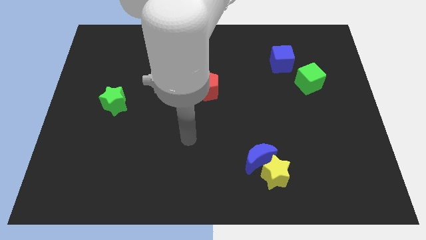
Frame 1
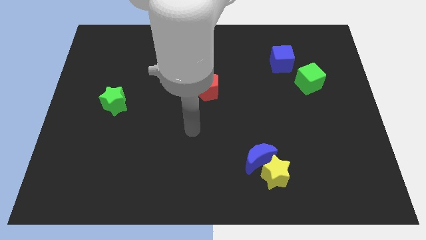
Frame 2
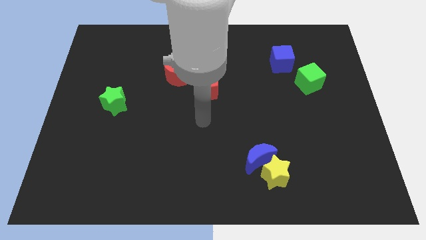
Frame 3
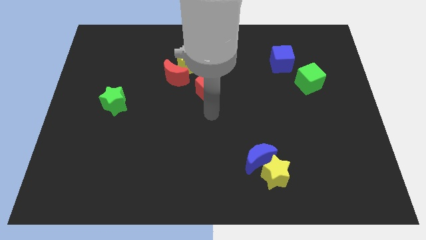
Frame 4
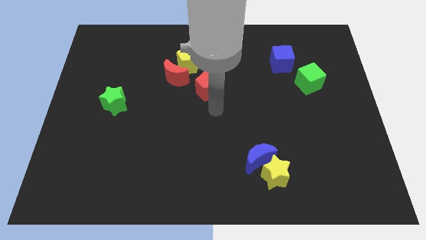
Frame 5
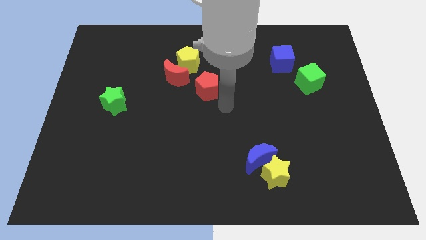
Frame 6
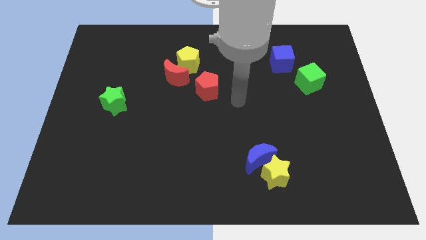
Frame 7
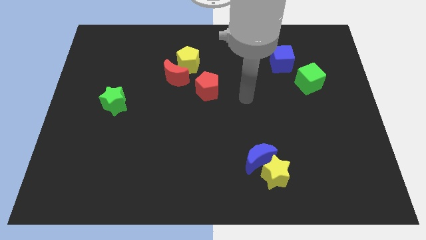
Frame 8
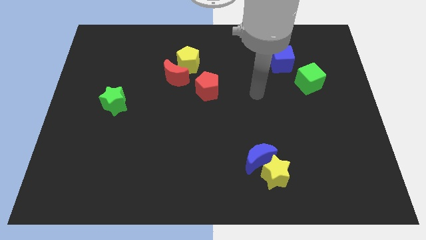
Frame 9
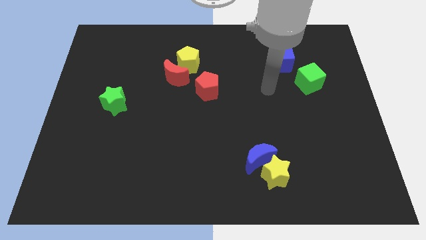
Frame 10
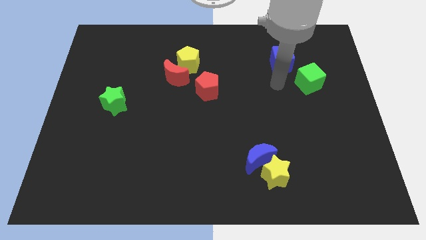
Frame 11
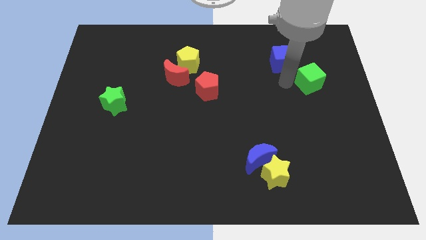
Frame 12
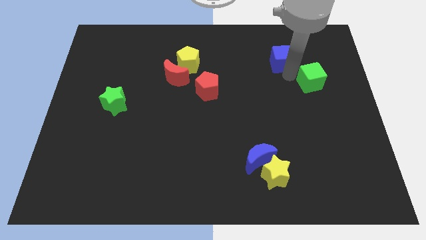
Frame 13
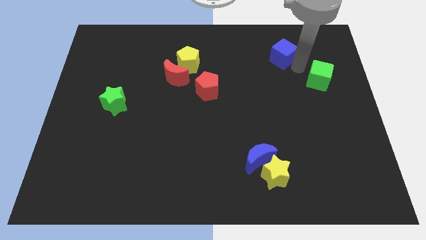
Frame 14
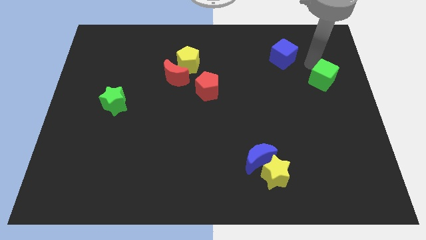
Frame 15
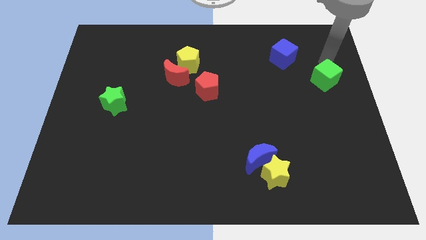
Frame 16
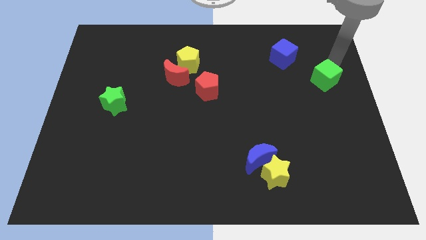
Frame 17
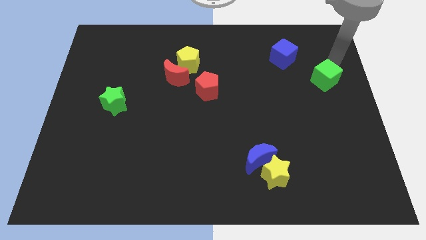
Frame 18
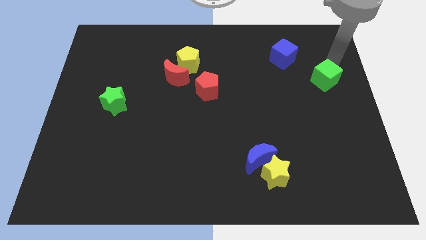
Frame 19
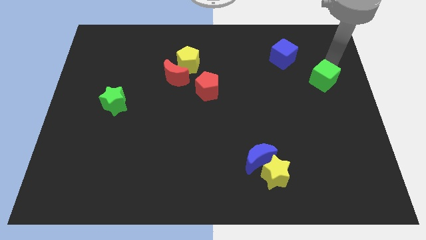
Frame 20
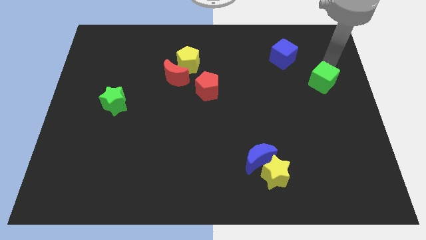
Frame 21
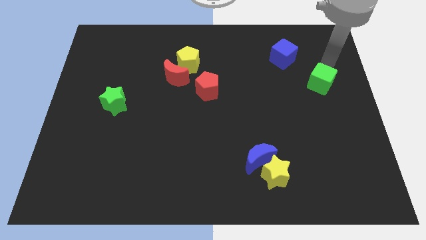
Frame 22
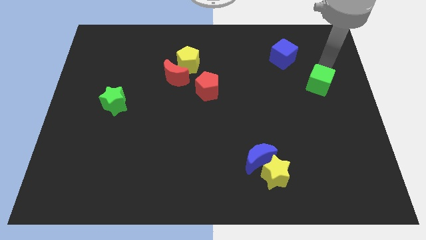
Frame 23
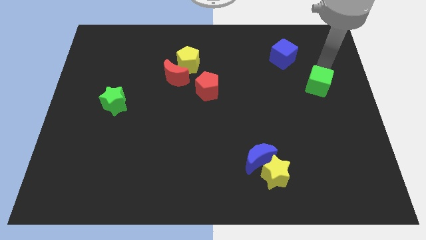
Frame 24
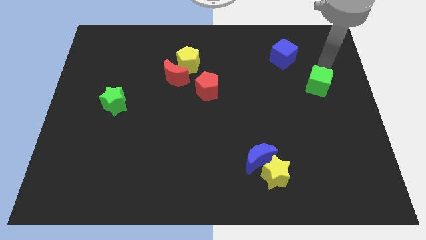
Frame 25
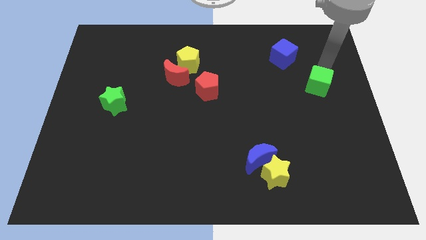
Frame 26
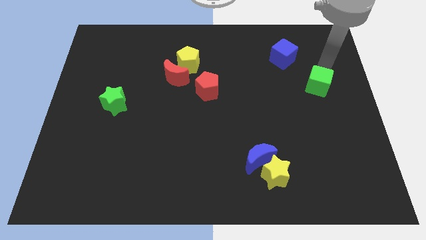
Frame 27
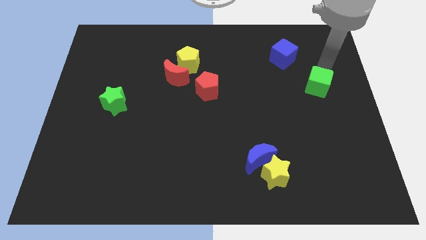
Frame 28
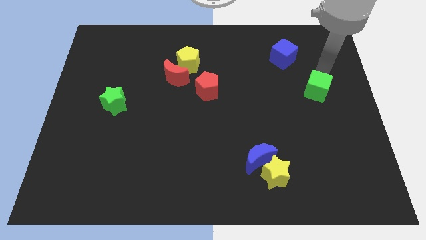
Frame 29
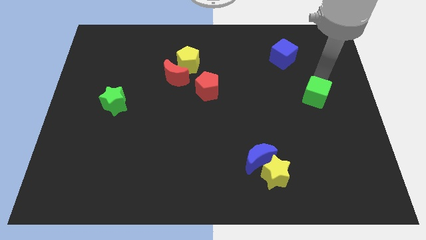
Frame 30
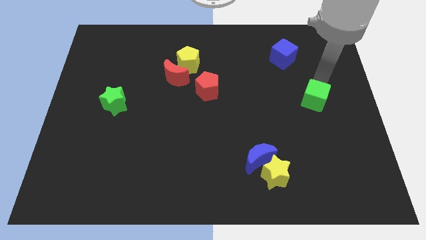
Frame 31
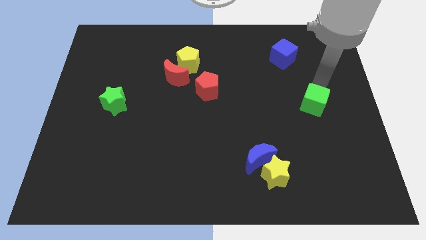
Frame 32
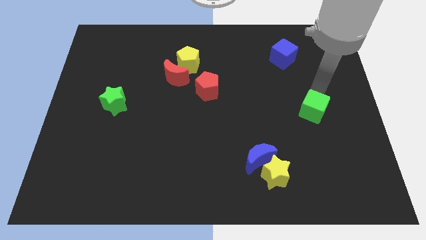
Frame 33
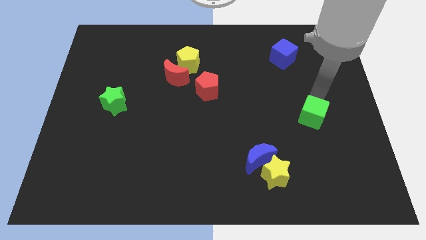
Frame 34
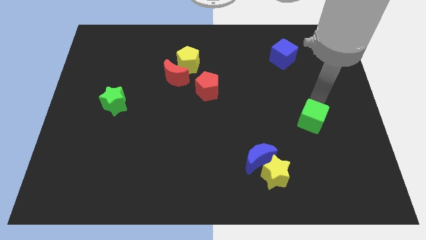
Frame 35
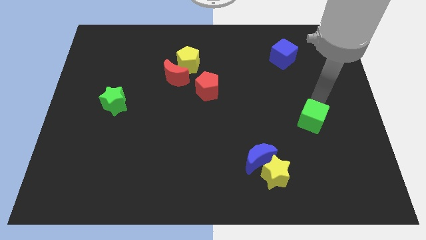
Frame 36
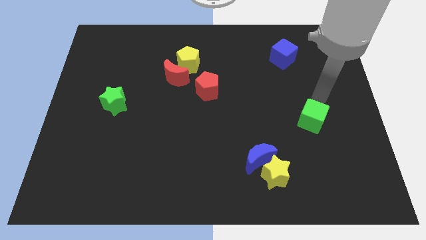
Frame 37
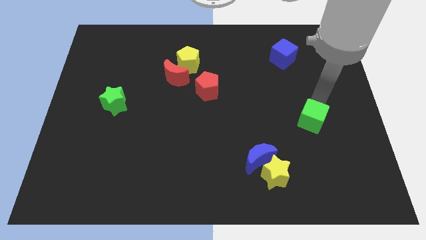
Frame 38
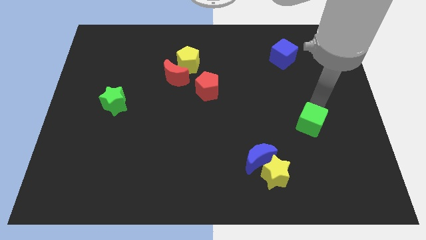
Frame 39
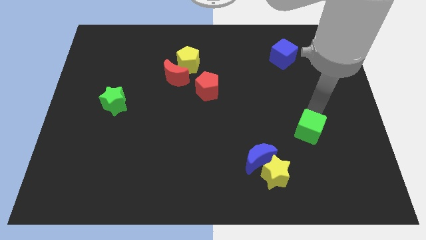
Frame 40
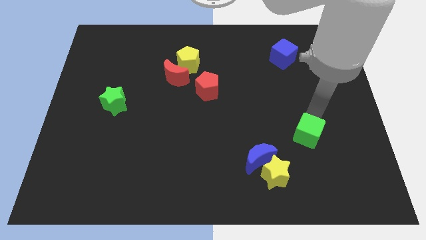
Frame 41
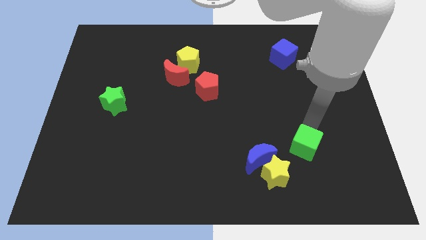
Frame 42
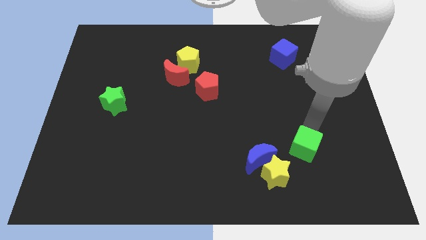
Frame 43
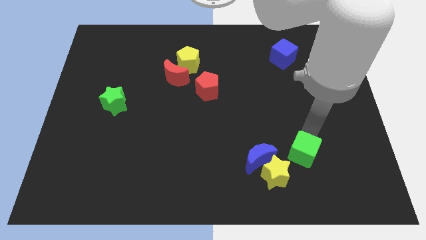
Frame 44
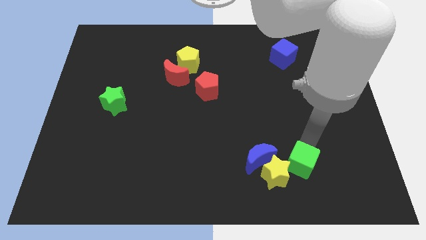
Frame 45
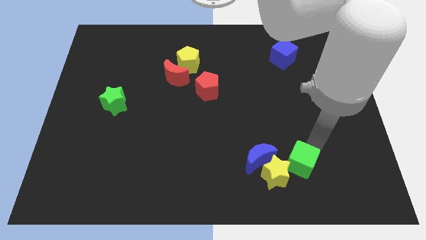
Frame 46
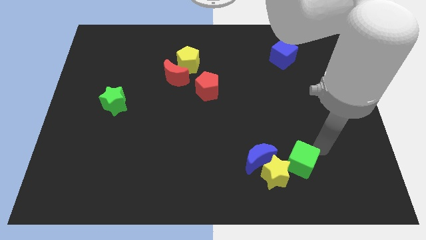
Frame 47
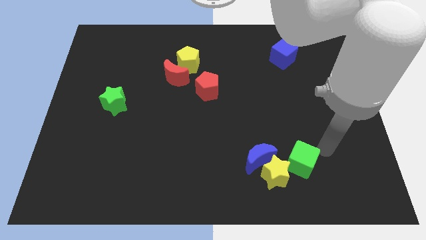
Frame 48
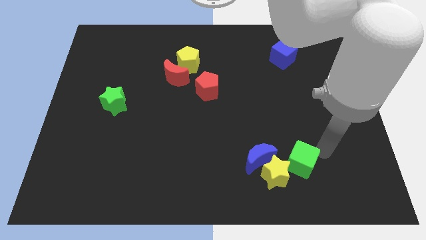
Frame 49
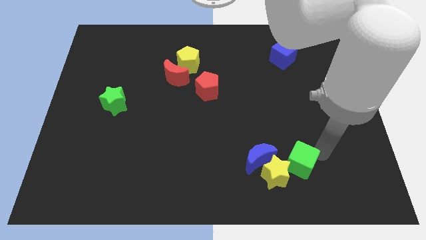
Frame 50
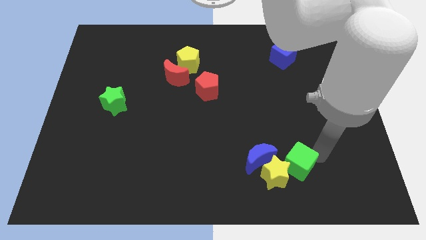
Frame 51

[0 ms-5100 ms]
move the green cube towards the yellow star

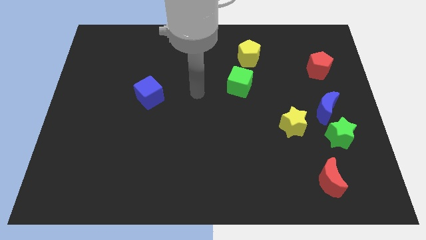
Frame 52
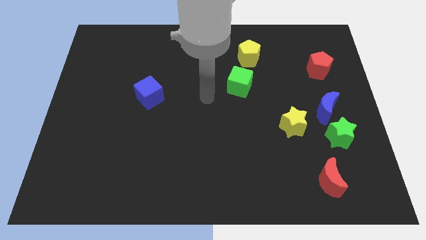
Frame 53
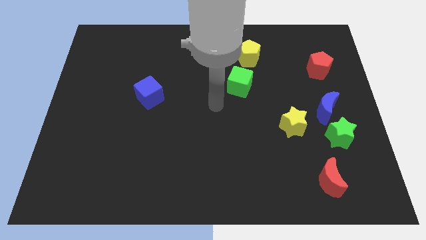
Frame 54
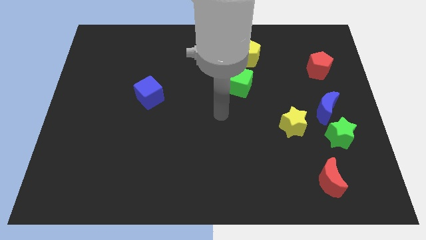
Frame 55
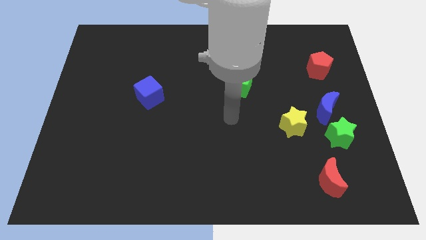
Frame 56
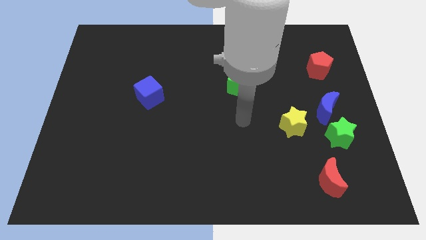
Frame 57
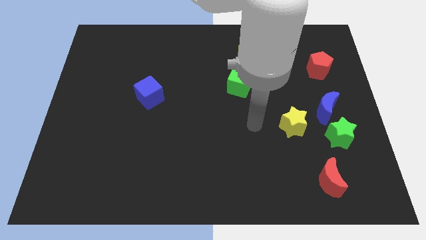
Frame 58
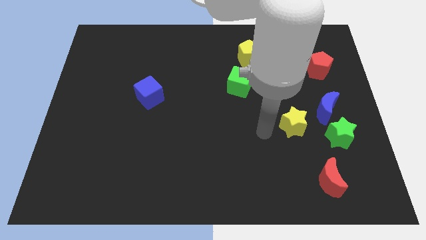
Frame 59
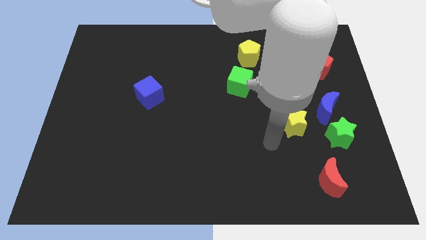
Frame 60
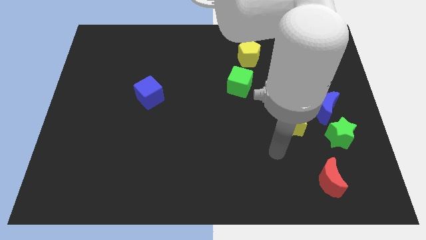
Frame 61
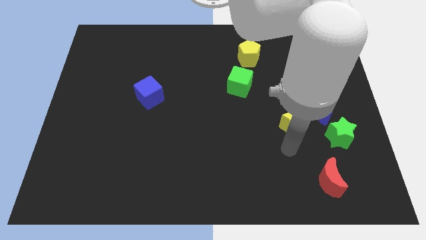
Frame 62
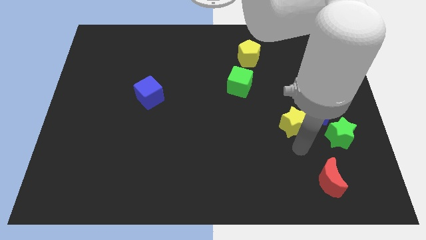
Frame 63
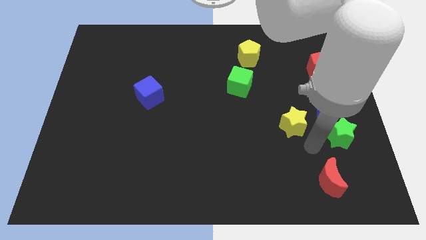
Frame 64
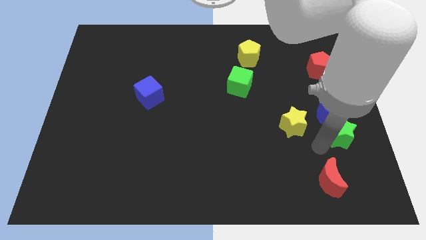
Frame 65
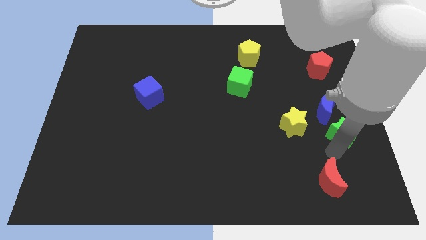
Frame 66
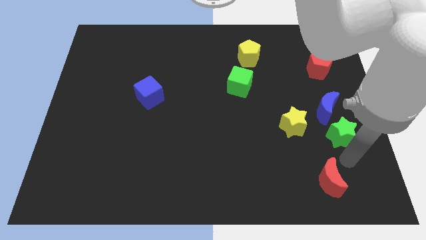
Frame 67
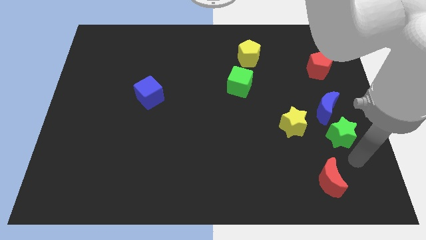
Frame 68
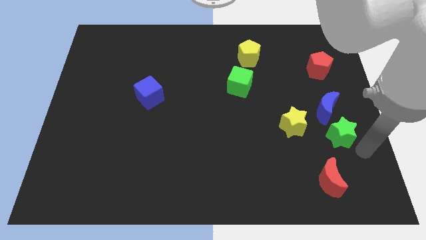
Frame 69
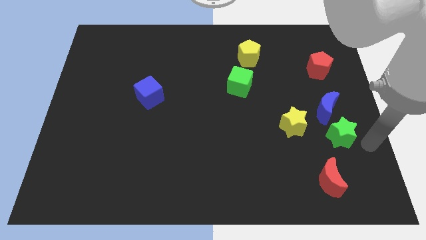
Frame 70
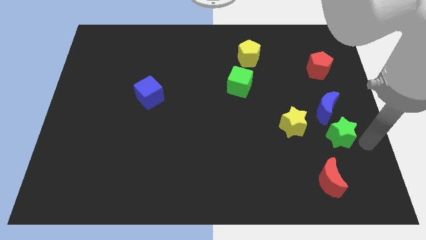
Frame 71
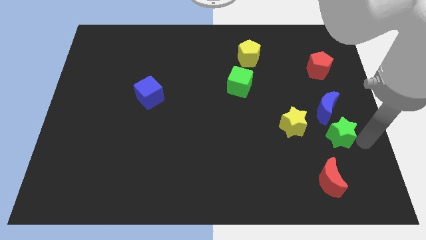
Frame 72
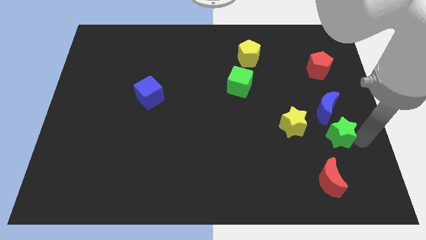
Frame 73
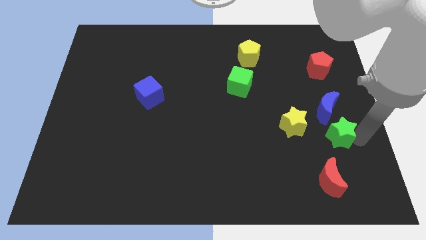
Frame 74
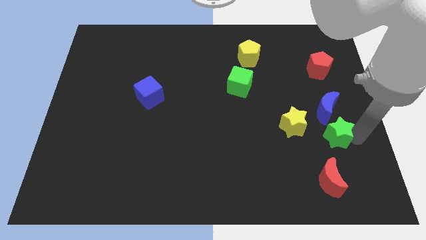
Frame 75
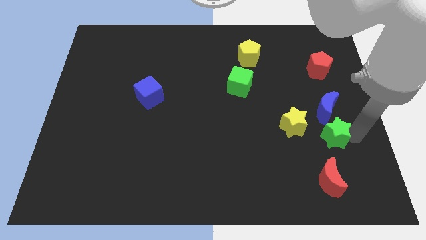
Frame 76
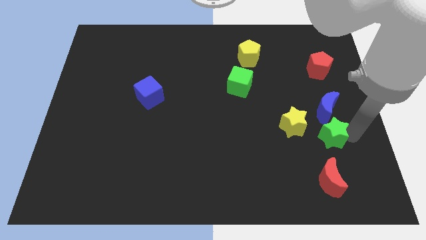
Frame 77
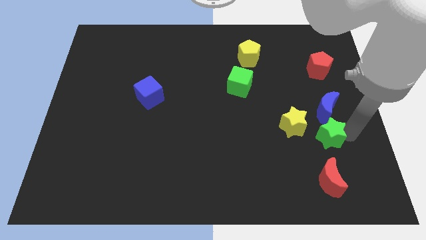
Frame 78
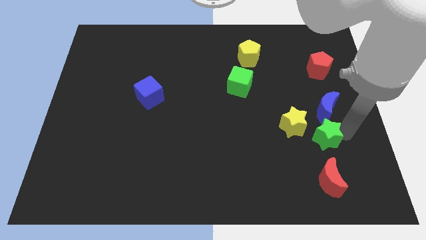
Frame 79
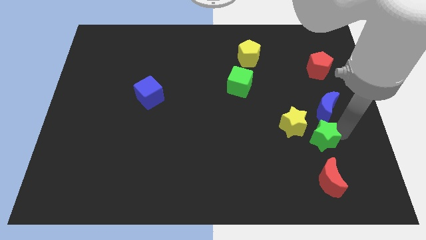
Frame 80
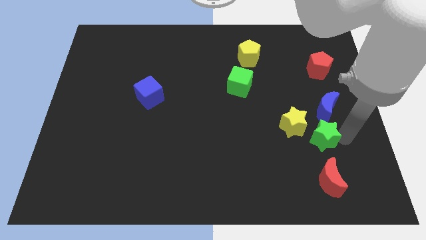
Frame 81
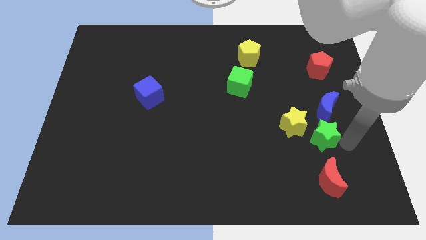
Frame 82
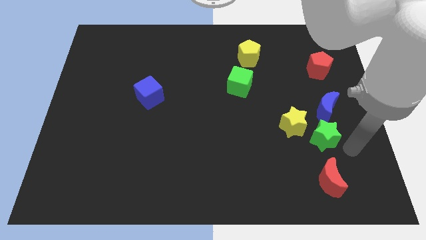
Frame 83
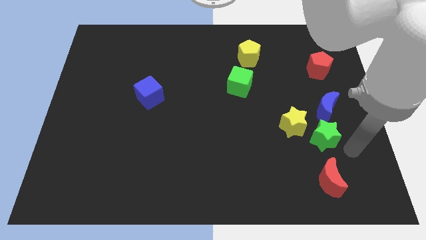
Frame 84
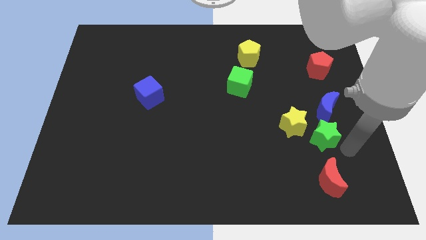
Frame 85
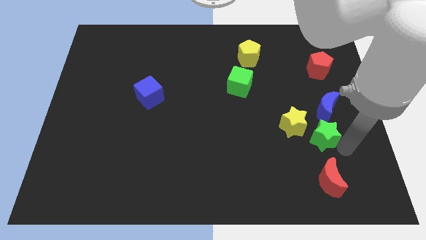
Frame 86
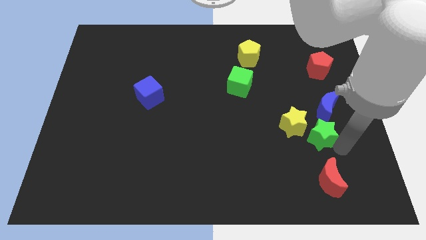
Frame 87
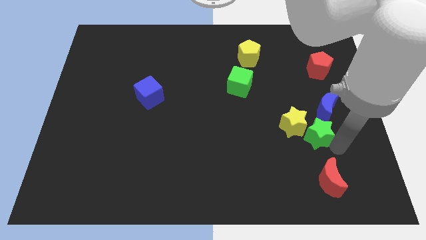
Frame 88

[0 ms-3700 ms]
move the green star next to the yellow star
